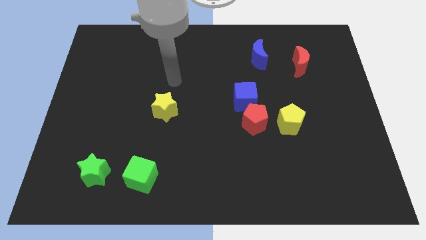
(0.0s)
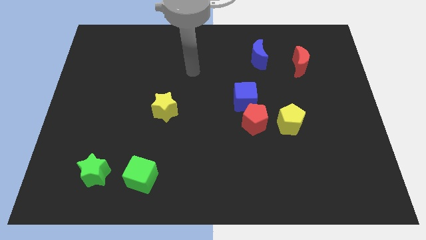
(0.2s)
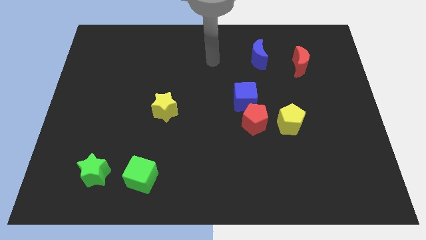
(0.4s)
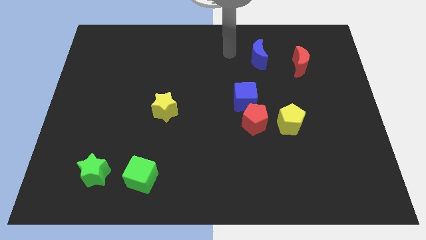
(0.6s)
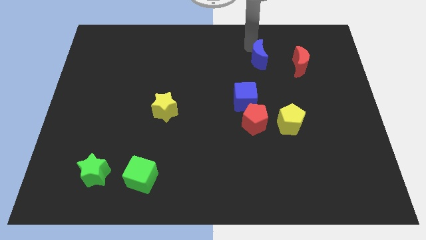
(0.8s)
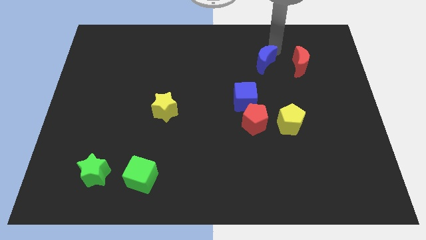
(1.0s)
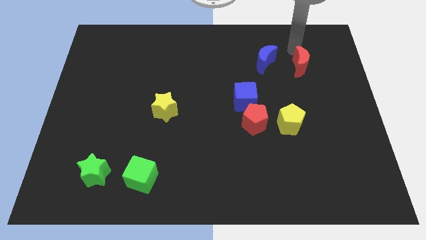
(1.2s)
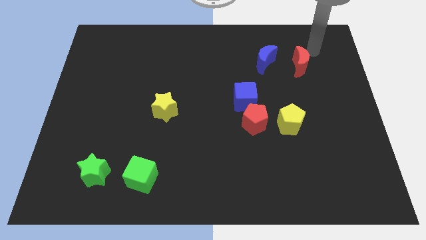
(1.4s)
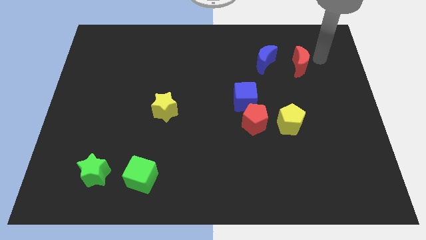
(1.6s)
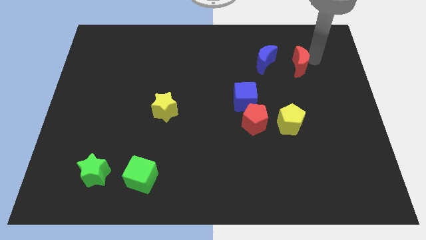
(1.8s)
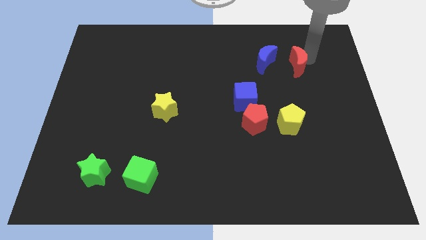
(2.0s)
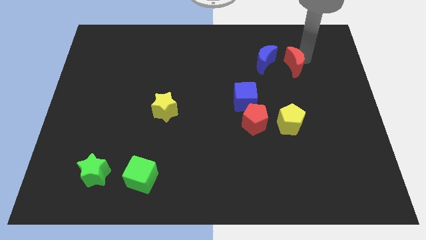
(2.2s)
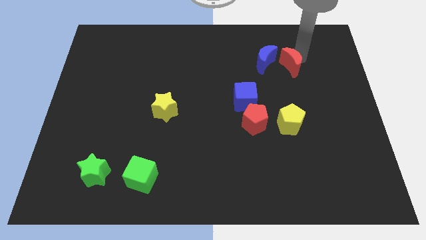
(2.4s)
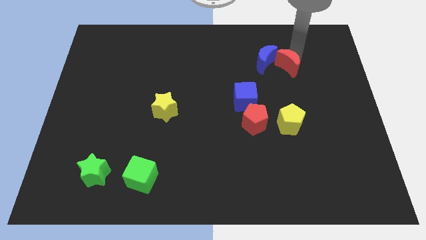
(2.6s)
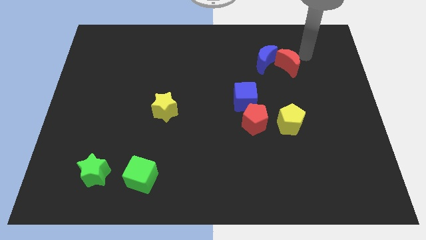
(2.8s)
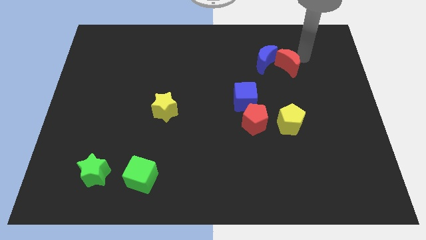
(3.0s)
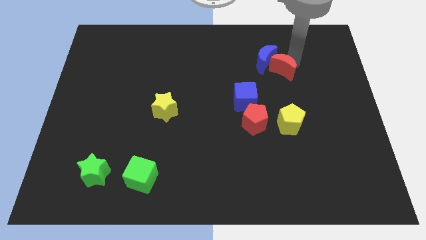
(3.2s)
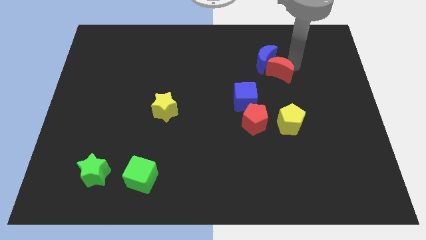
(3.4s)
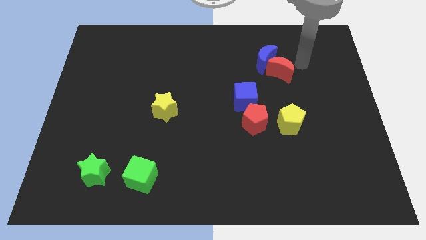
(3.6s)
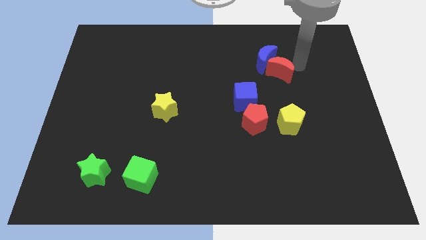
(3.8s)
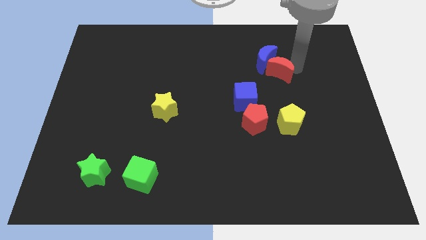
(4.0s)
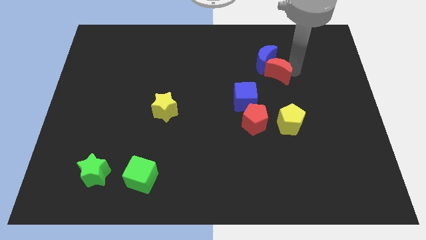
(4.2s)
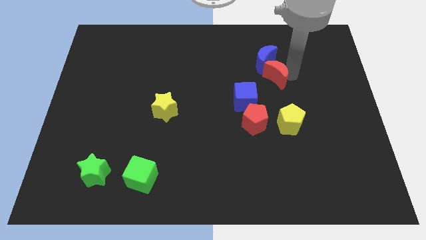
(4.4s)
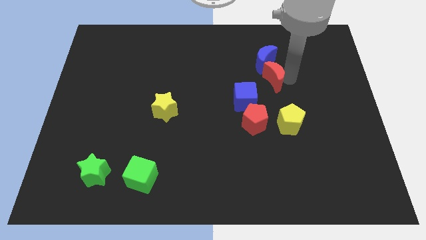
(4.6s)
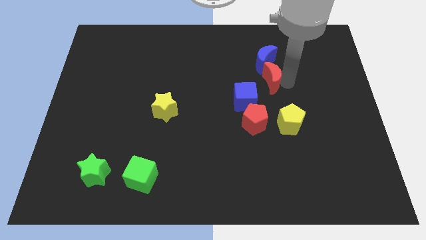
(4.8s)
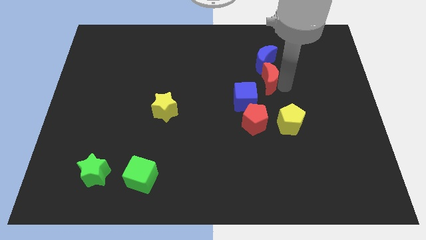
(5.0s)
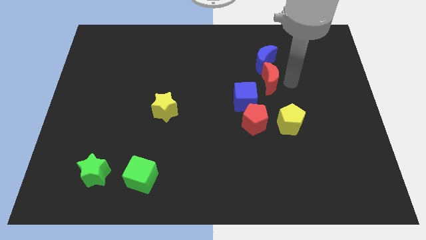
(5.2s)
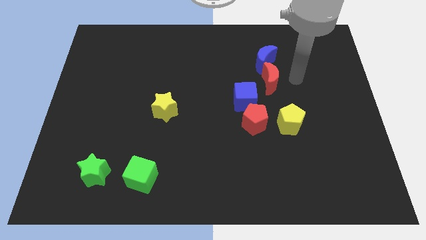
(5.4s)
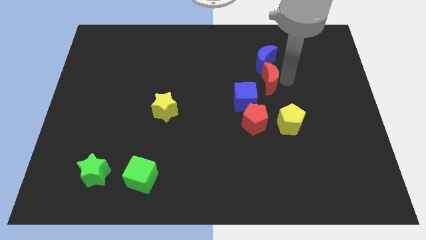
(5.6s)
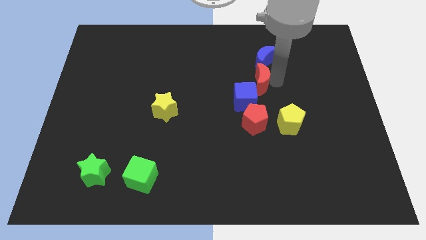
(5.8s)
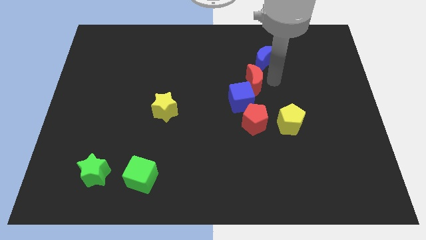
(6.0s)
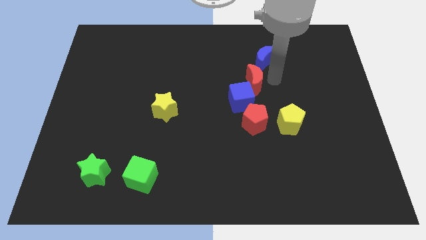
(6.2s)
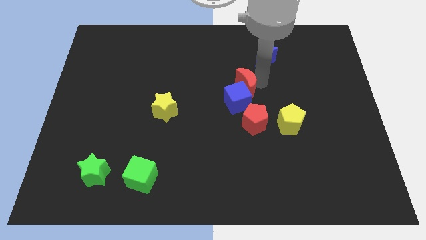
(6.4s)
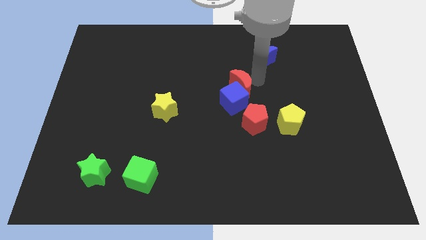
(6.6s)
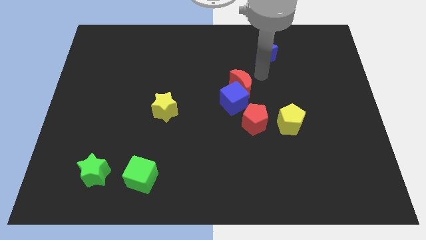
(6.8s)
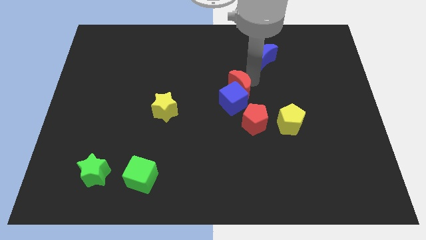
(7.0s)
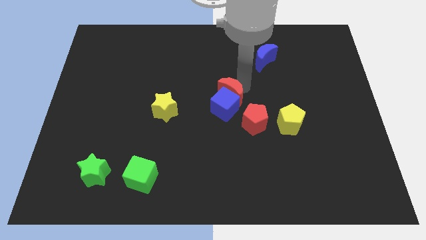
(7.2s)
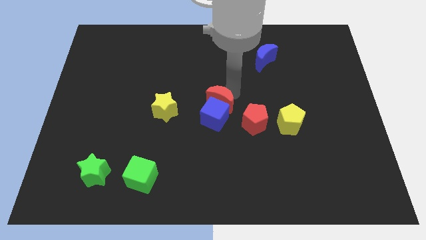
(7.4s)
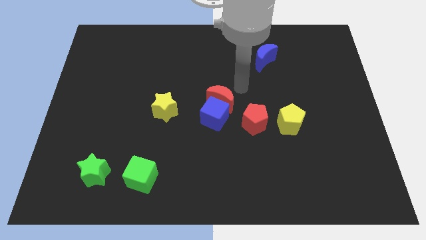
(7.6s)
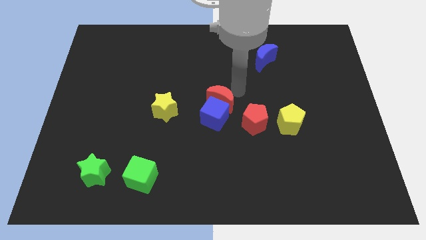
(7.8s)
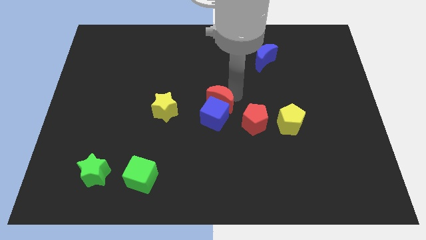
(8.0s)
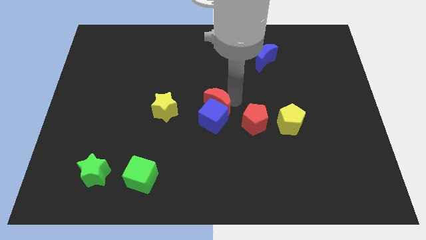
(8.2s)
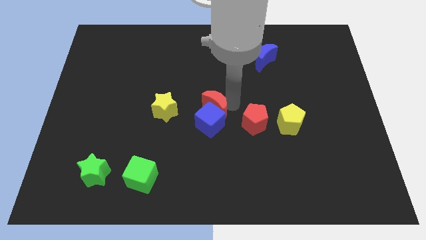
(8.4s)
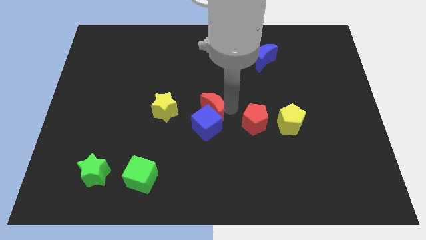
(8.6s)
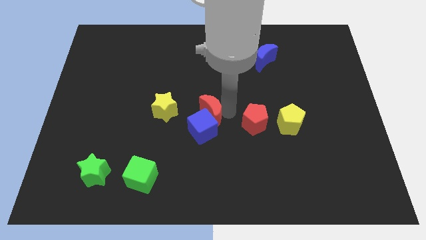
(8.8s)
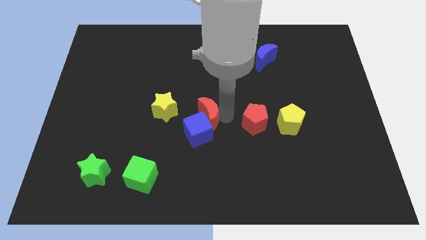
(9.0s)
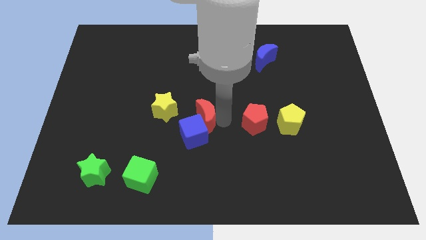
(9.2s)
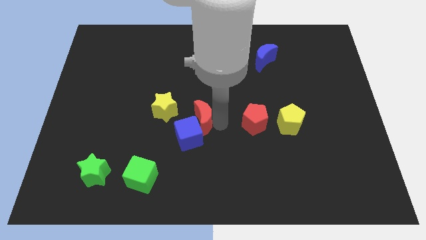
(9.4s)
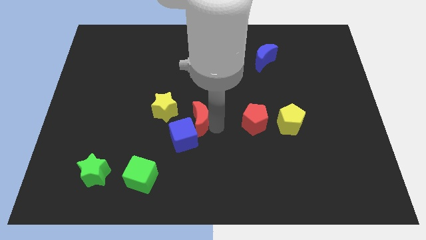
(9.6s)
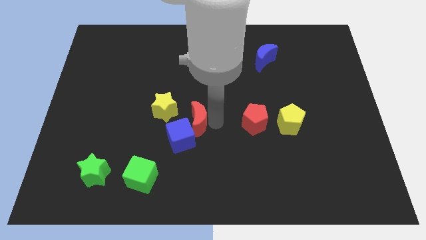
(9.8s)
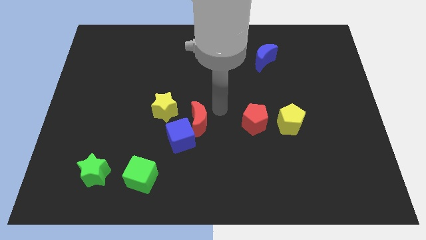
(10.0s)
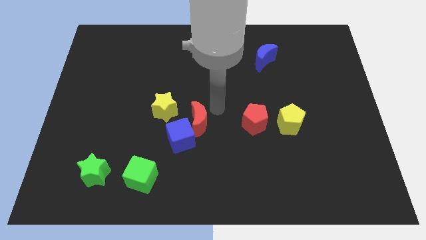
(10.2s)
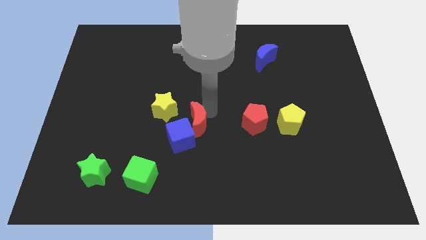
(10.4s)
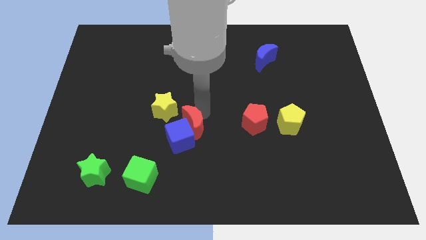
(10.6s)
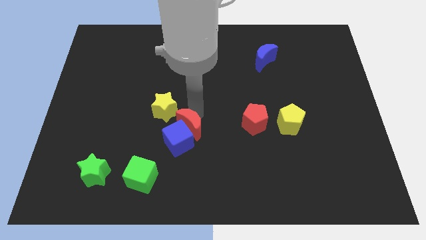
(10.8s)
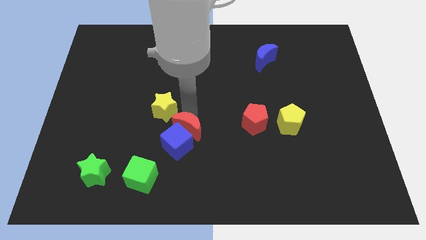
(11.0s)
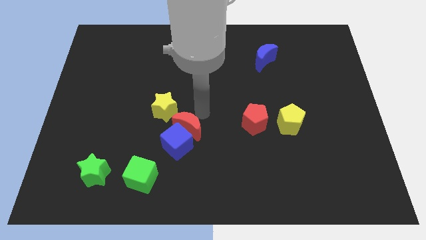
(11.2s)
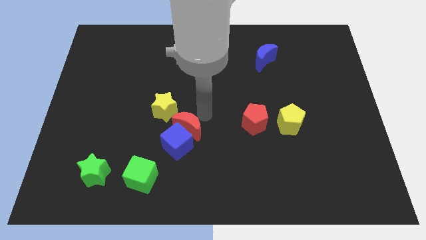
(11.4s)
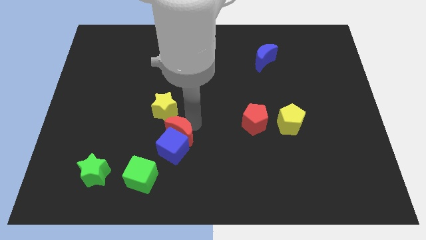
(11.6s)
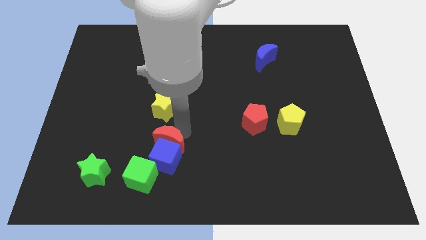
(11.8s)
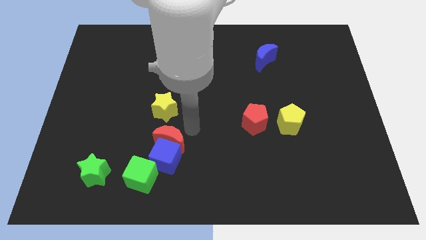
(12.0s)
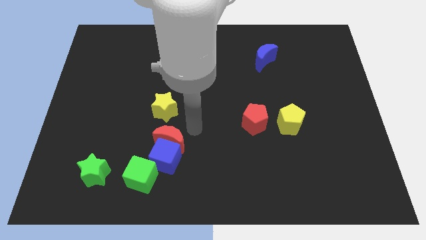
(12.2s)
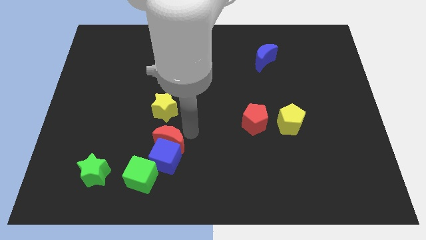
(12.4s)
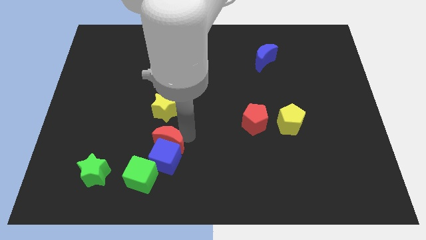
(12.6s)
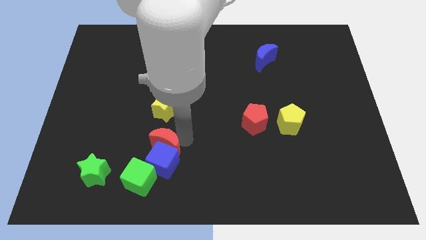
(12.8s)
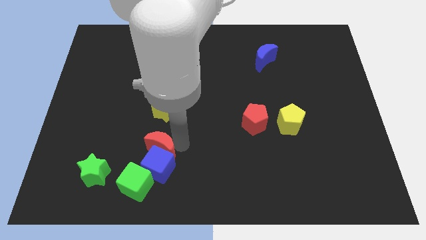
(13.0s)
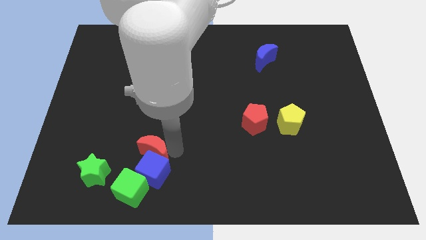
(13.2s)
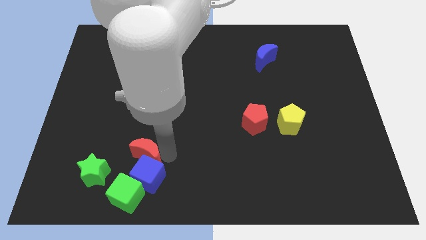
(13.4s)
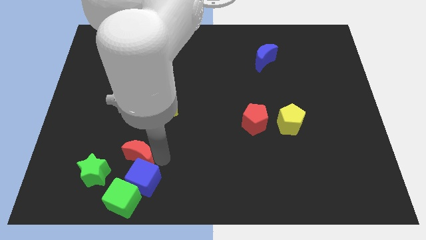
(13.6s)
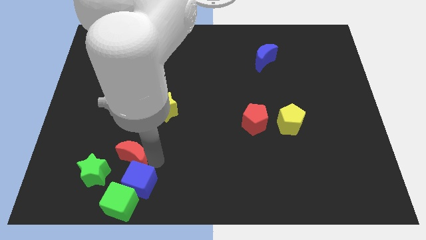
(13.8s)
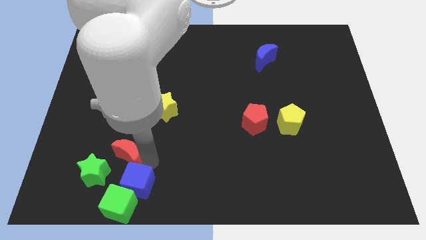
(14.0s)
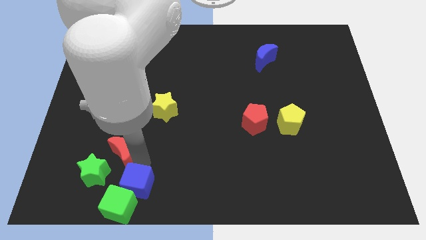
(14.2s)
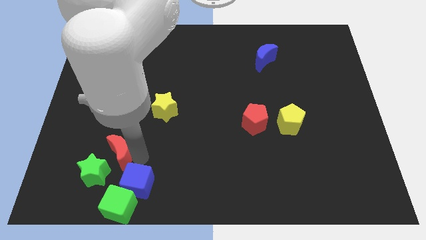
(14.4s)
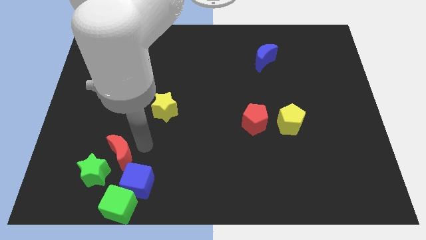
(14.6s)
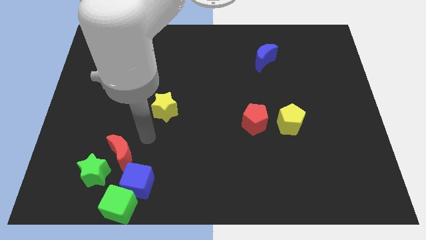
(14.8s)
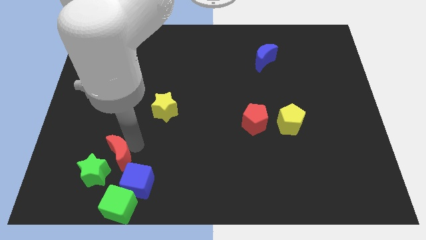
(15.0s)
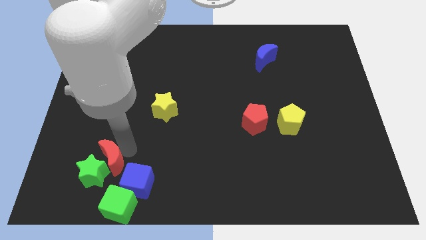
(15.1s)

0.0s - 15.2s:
put the red moon to the green star
